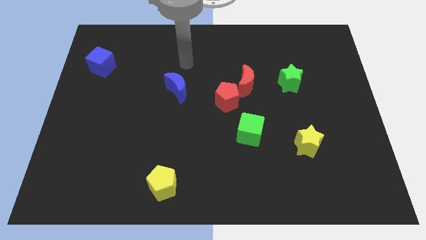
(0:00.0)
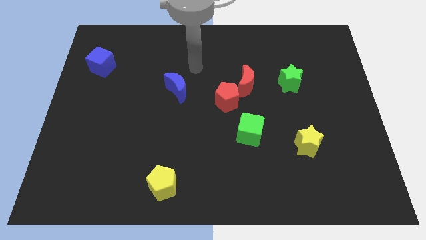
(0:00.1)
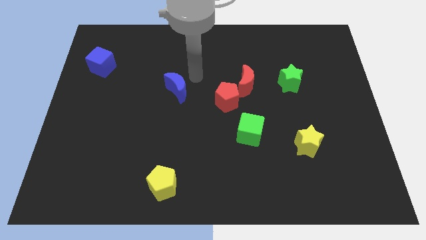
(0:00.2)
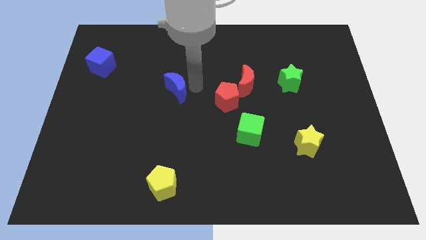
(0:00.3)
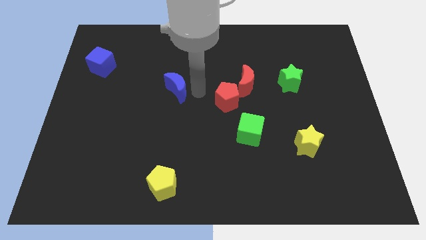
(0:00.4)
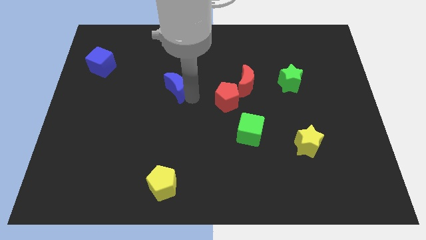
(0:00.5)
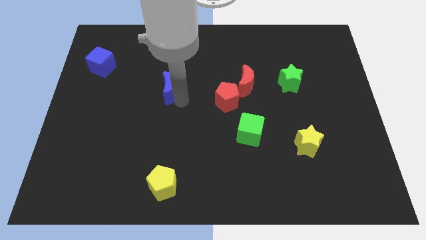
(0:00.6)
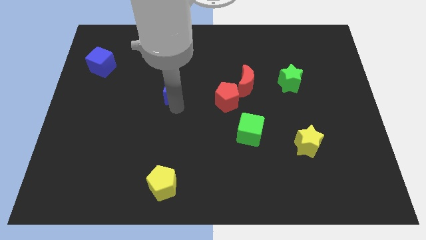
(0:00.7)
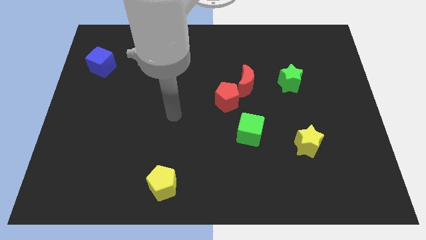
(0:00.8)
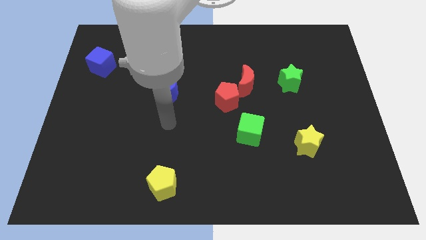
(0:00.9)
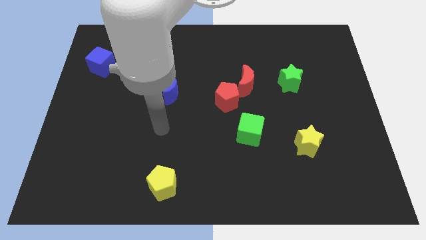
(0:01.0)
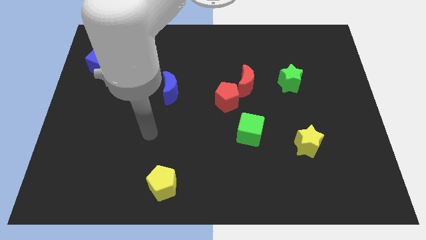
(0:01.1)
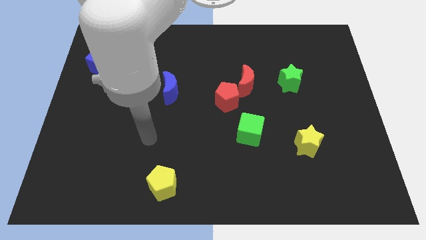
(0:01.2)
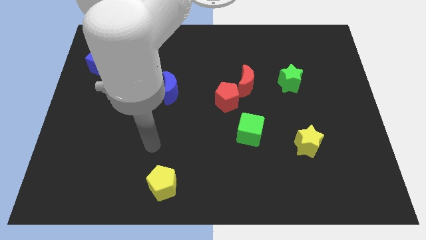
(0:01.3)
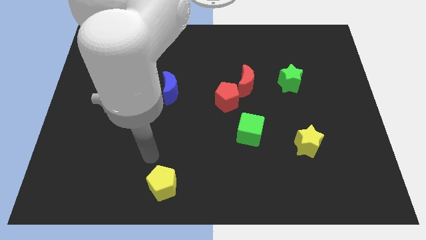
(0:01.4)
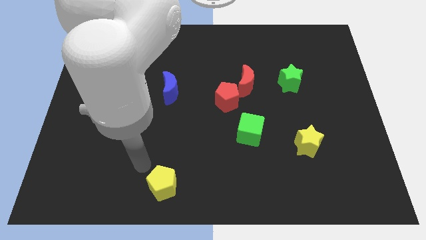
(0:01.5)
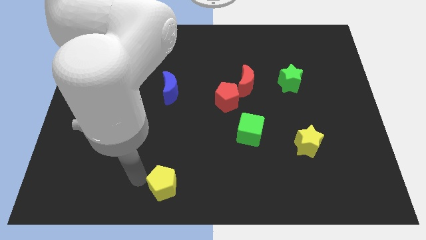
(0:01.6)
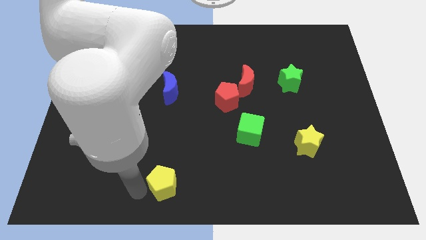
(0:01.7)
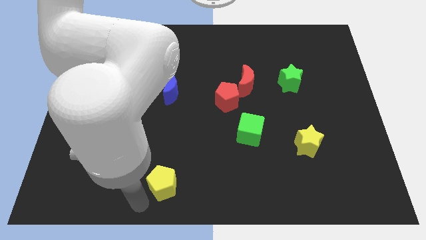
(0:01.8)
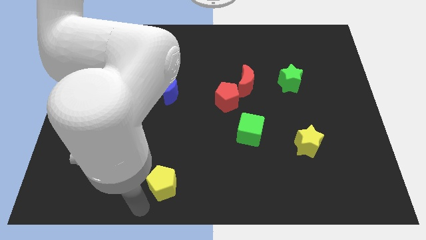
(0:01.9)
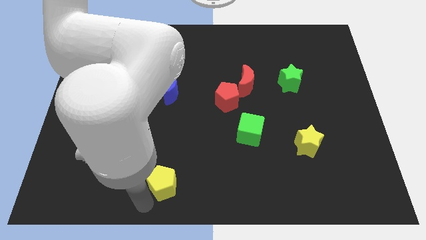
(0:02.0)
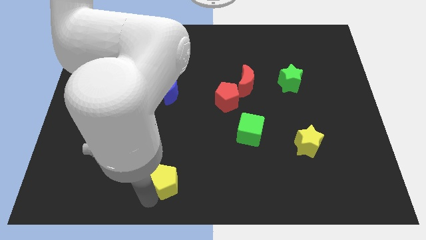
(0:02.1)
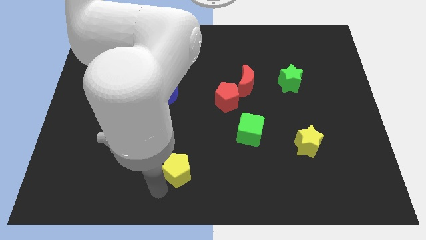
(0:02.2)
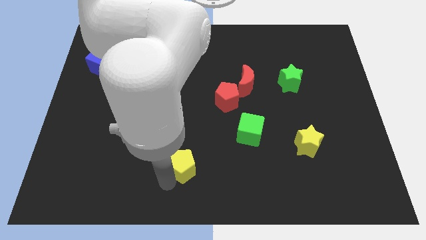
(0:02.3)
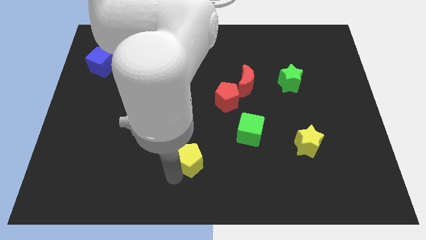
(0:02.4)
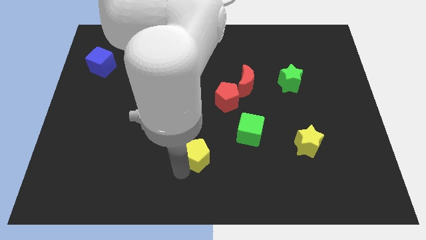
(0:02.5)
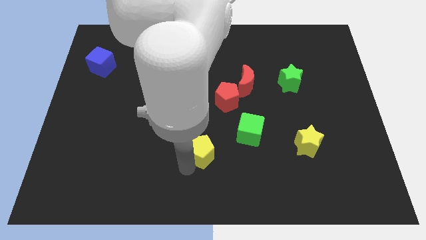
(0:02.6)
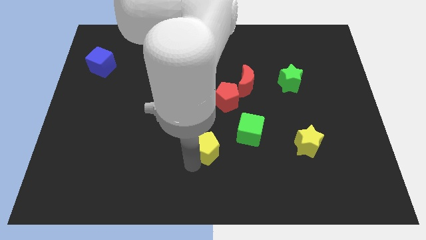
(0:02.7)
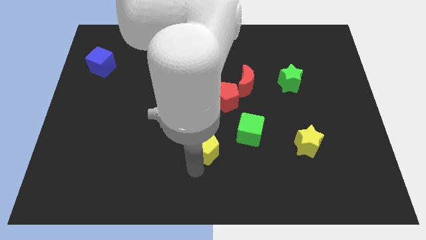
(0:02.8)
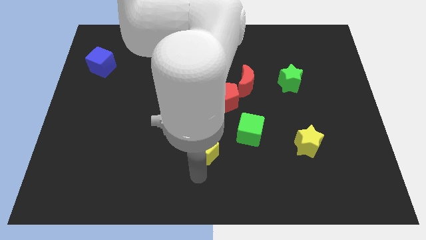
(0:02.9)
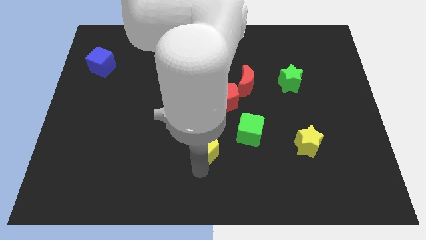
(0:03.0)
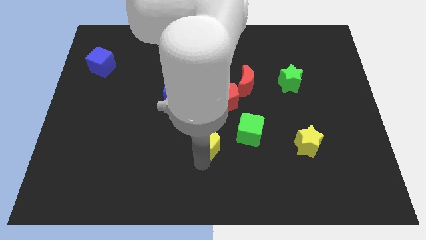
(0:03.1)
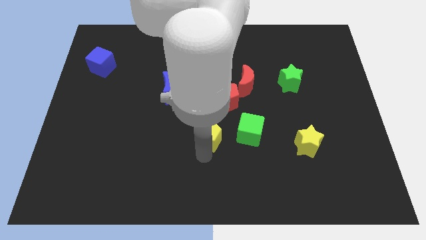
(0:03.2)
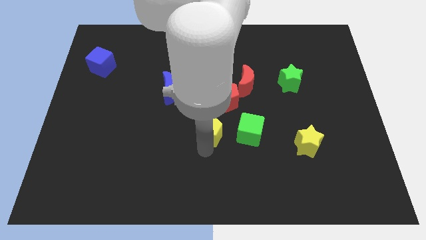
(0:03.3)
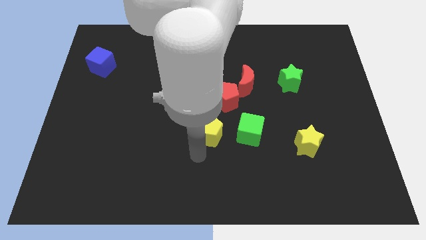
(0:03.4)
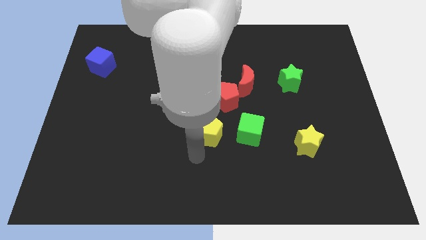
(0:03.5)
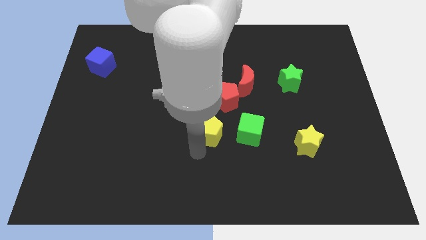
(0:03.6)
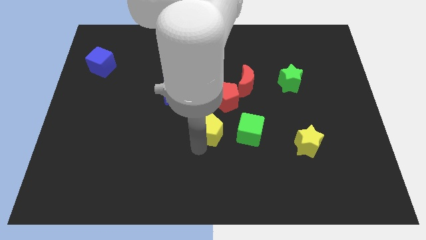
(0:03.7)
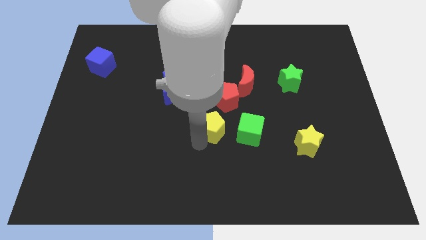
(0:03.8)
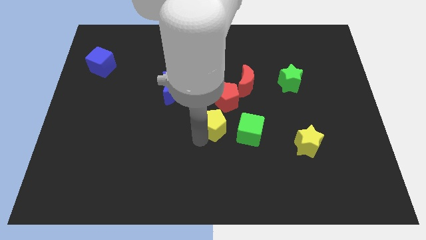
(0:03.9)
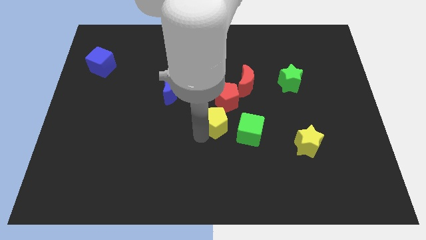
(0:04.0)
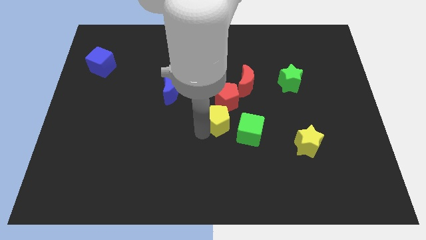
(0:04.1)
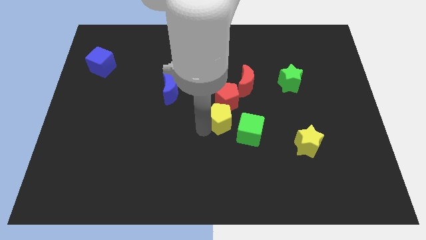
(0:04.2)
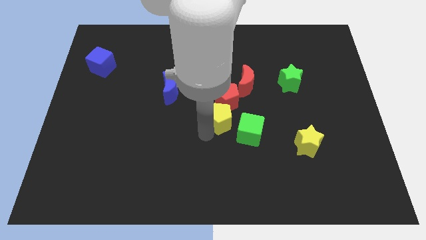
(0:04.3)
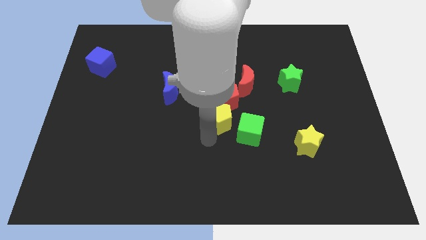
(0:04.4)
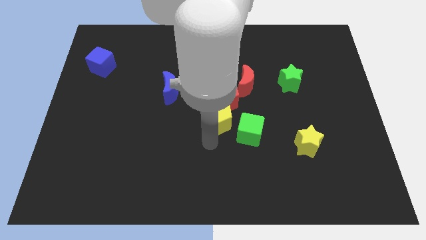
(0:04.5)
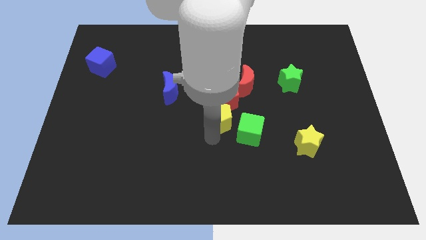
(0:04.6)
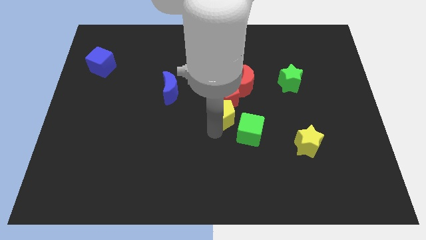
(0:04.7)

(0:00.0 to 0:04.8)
put the yellow pentagon to the red pentagon

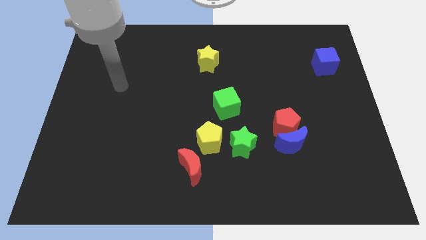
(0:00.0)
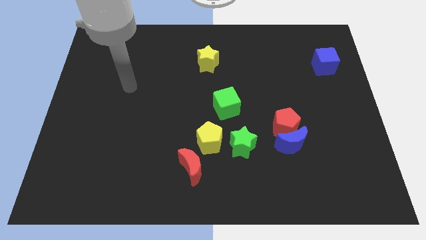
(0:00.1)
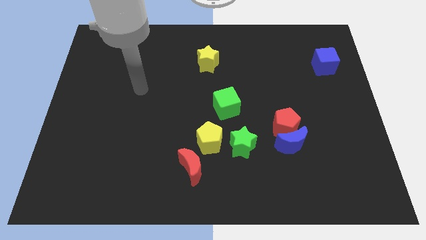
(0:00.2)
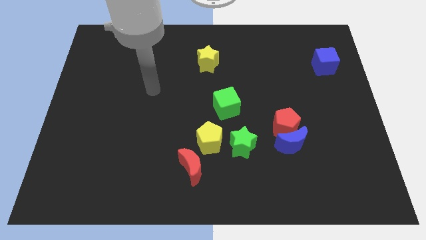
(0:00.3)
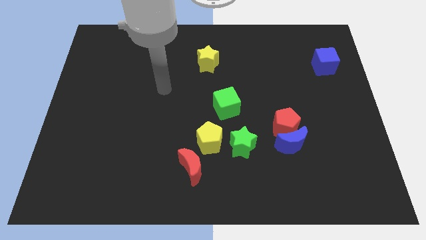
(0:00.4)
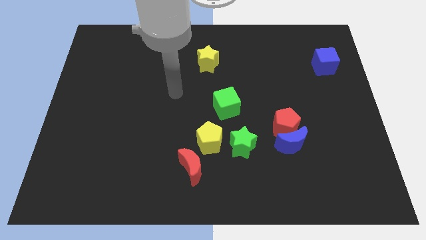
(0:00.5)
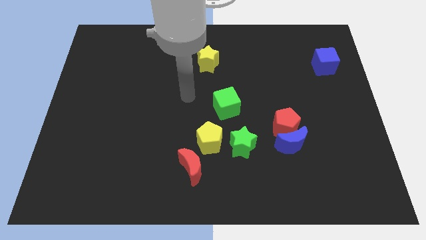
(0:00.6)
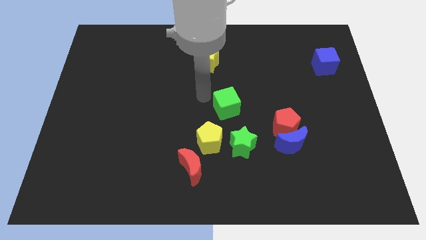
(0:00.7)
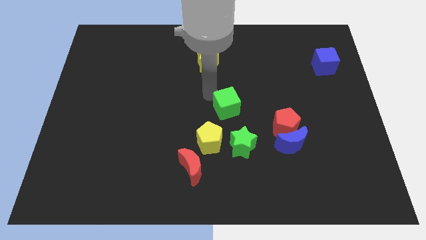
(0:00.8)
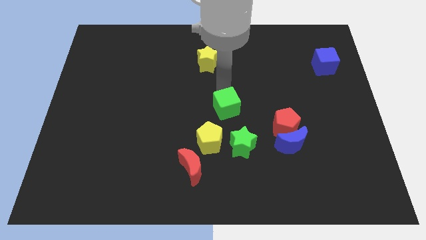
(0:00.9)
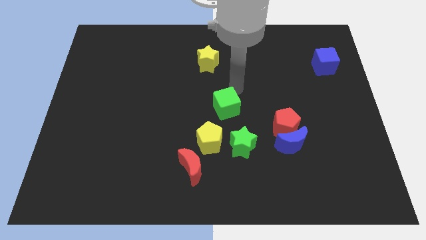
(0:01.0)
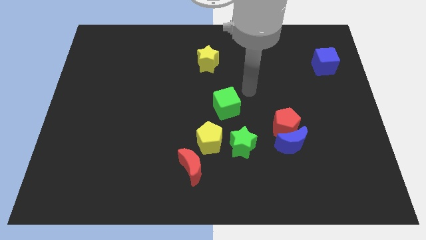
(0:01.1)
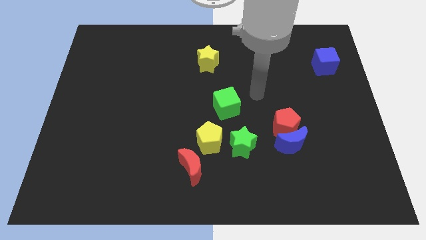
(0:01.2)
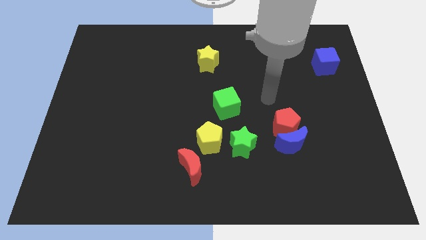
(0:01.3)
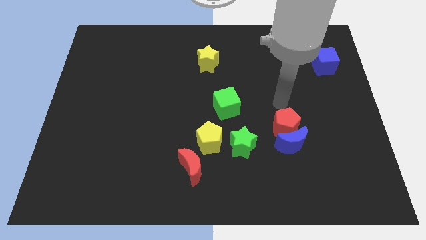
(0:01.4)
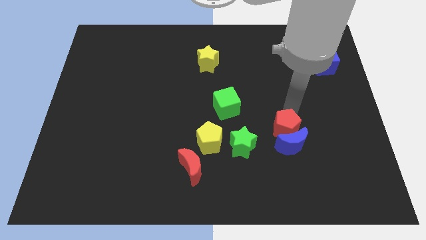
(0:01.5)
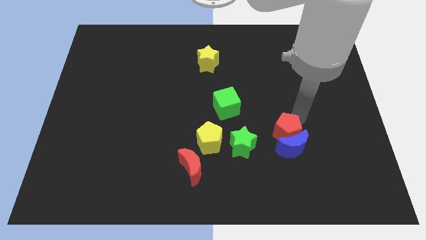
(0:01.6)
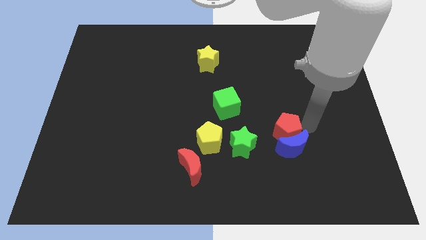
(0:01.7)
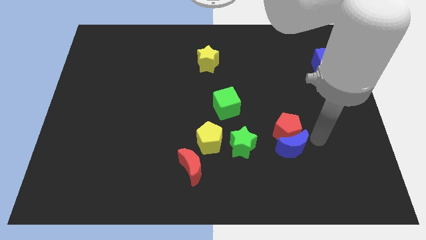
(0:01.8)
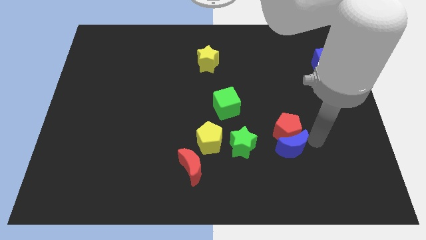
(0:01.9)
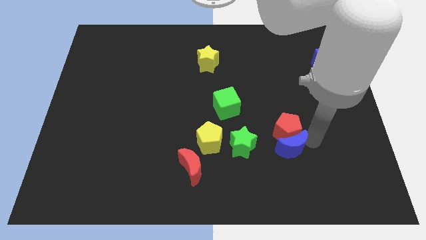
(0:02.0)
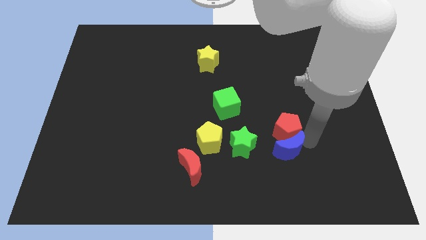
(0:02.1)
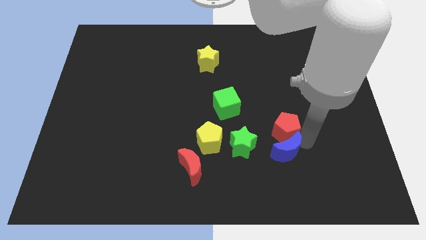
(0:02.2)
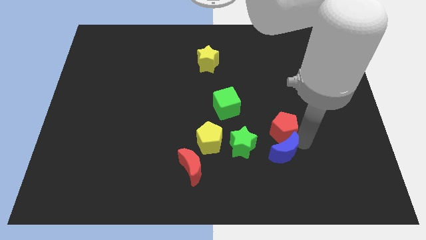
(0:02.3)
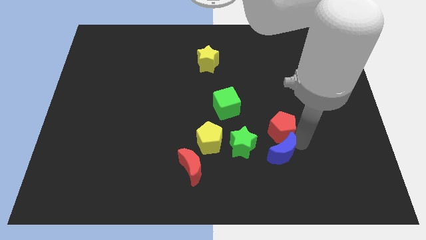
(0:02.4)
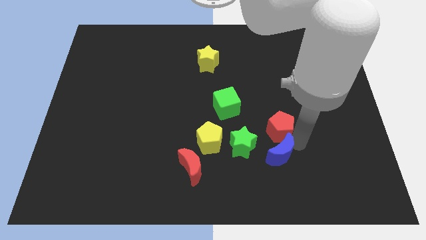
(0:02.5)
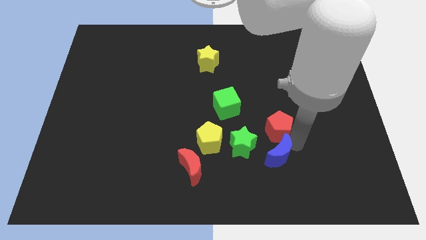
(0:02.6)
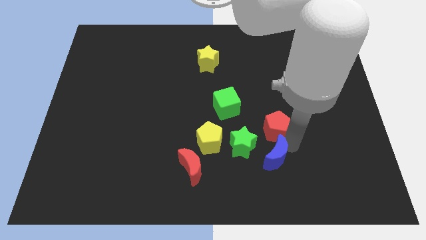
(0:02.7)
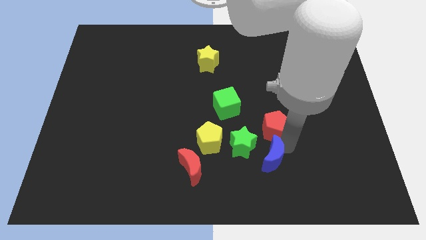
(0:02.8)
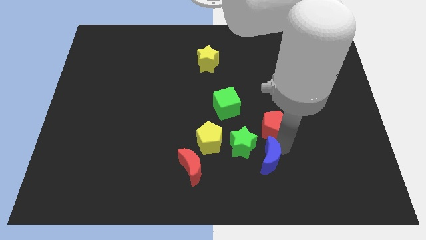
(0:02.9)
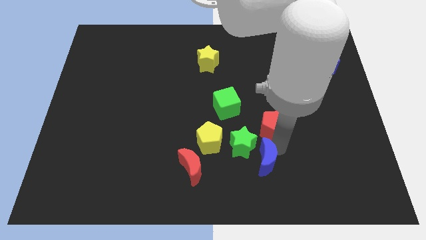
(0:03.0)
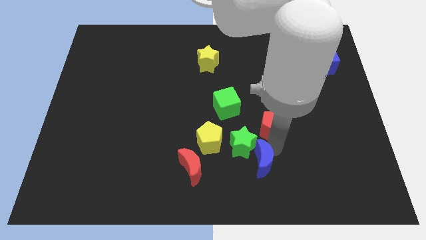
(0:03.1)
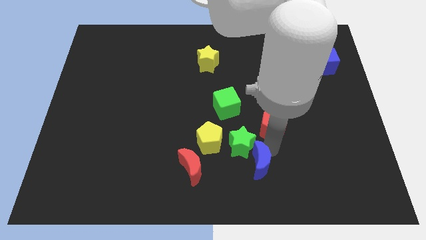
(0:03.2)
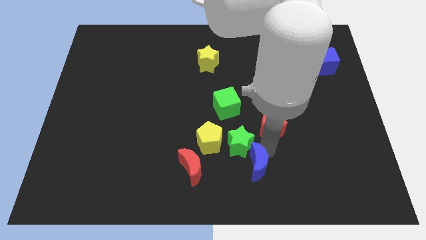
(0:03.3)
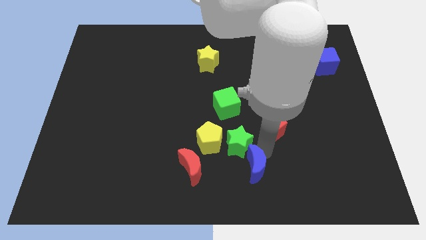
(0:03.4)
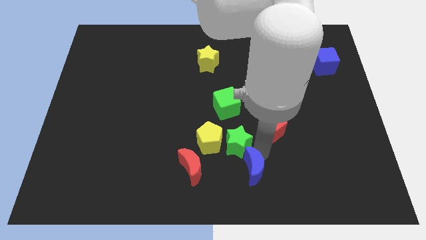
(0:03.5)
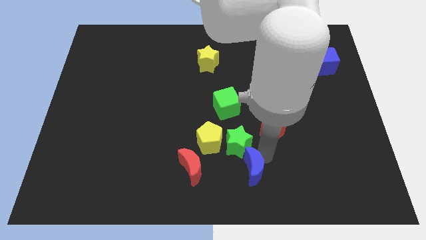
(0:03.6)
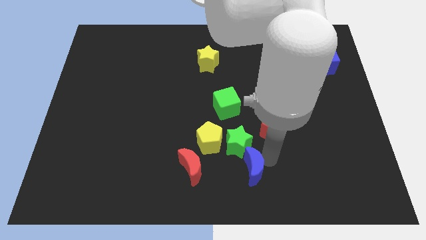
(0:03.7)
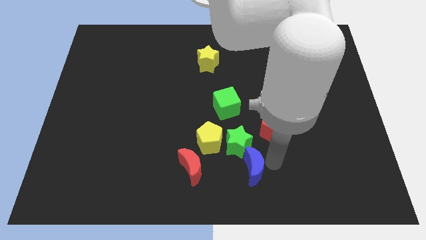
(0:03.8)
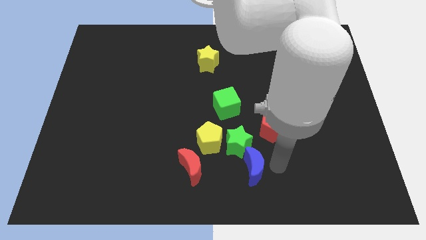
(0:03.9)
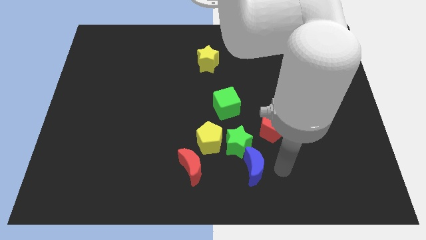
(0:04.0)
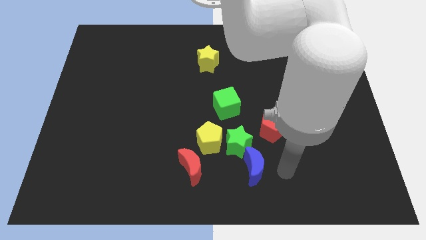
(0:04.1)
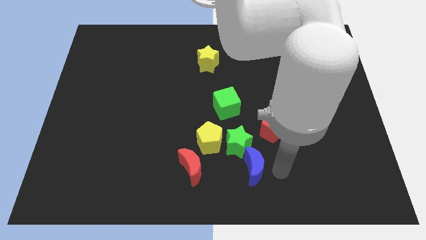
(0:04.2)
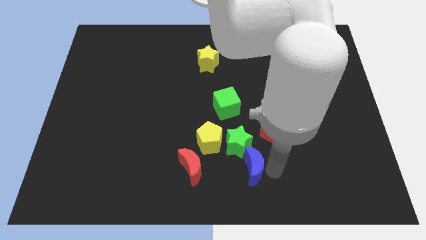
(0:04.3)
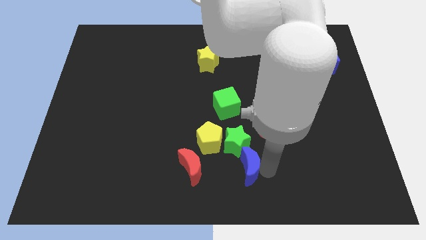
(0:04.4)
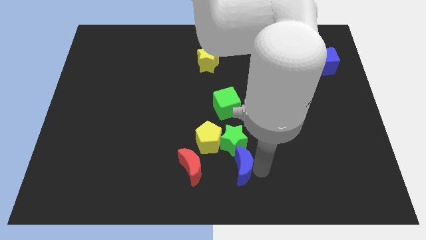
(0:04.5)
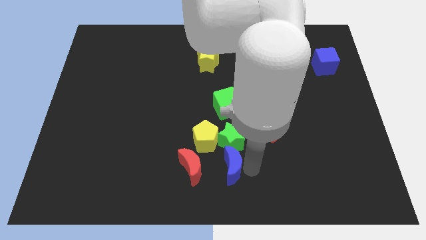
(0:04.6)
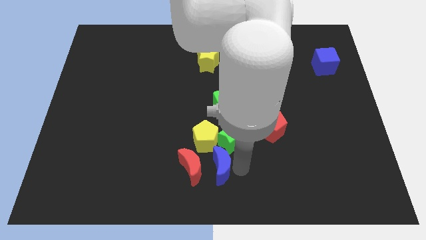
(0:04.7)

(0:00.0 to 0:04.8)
push the blue moon towards the red moon
